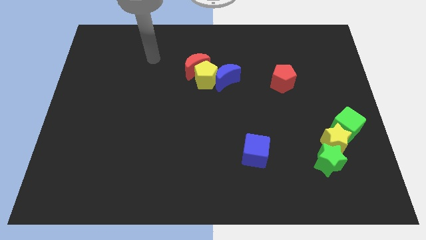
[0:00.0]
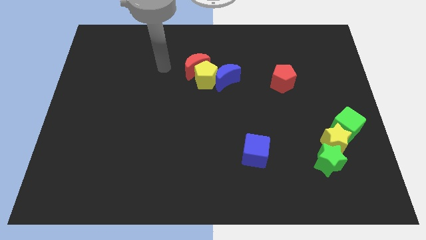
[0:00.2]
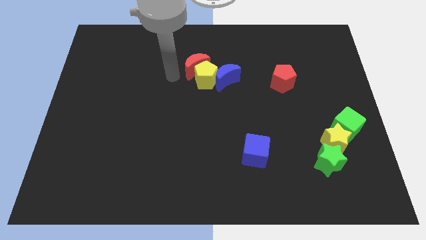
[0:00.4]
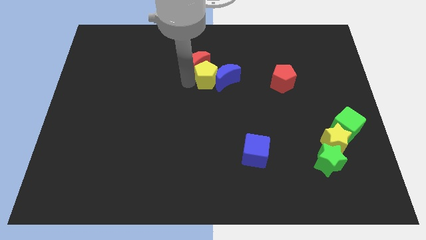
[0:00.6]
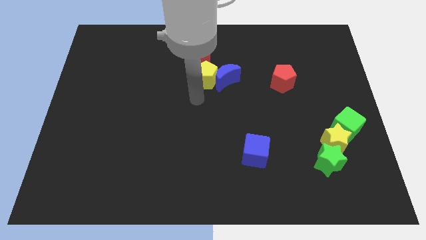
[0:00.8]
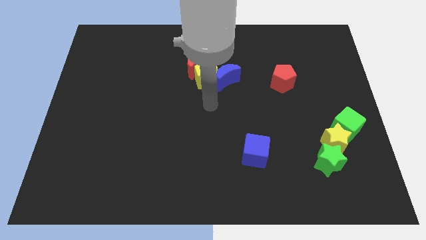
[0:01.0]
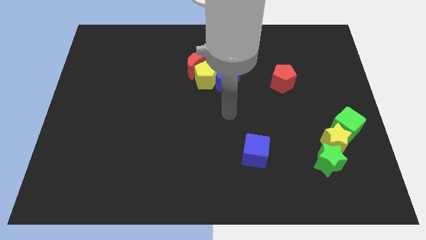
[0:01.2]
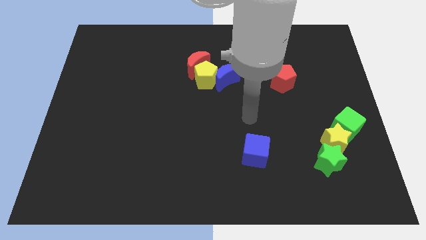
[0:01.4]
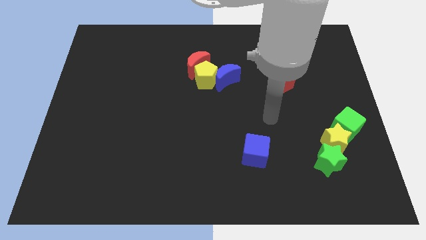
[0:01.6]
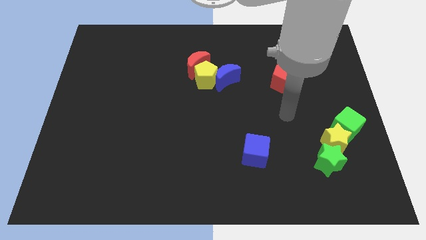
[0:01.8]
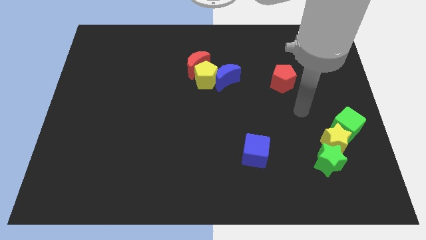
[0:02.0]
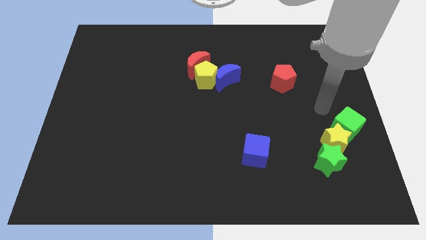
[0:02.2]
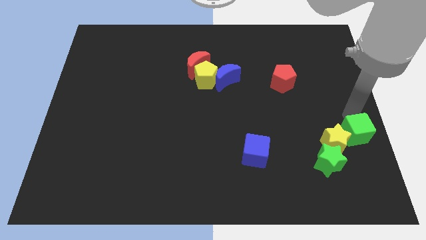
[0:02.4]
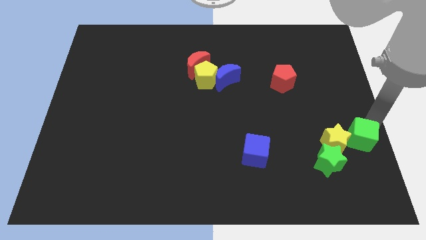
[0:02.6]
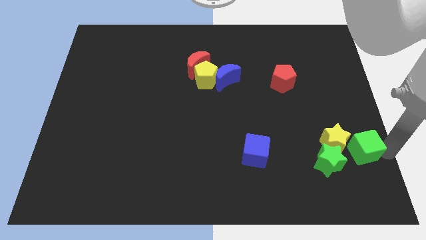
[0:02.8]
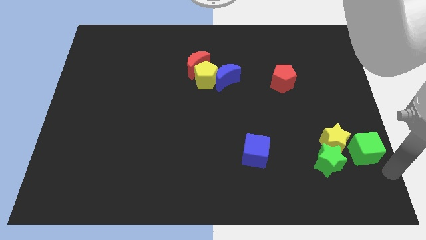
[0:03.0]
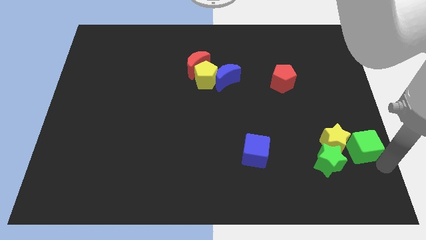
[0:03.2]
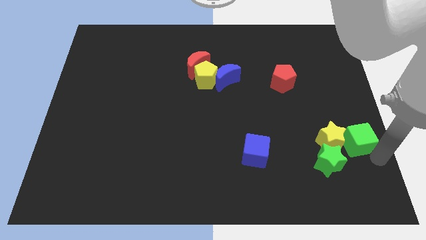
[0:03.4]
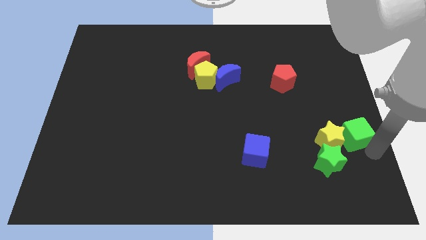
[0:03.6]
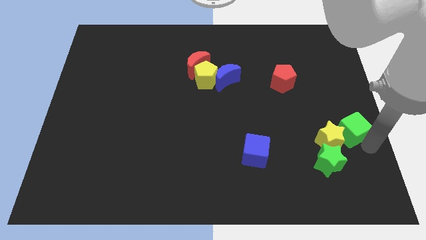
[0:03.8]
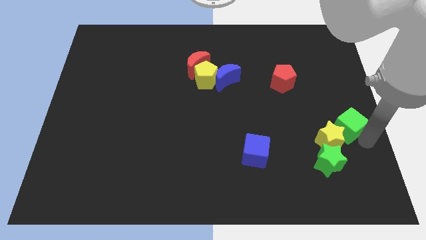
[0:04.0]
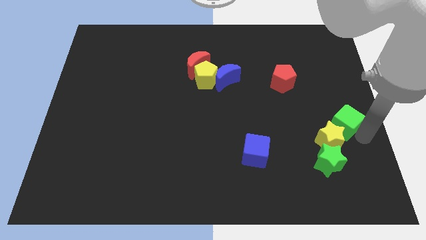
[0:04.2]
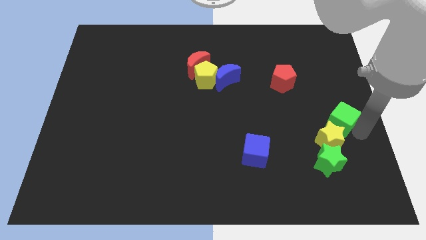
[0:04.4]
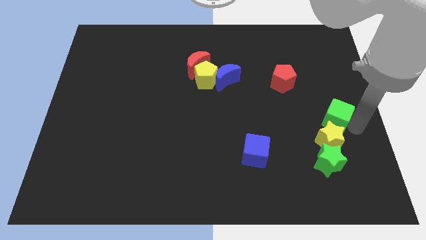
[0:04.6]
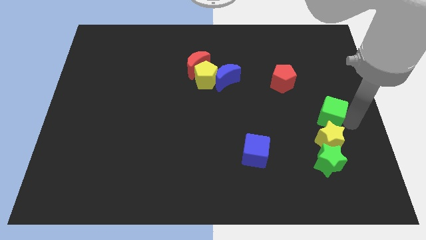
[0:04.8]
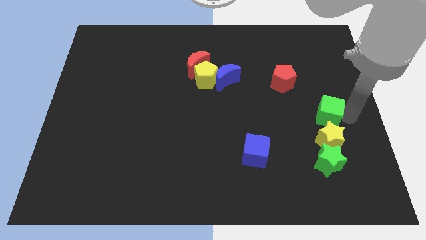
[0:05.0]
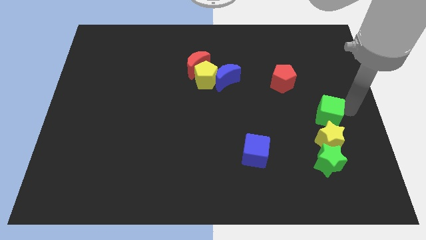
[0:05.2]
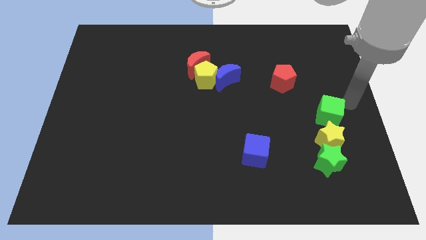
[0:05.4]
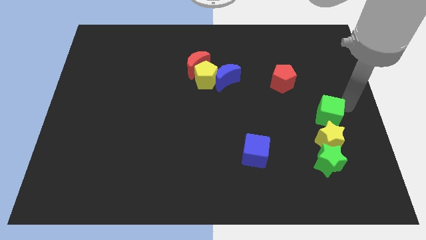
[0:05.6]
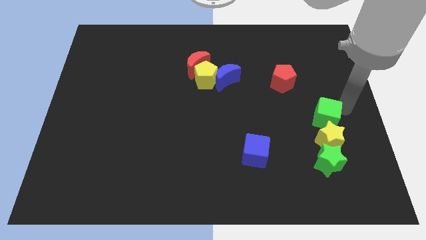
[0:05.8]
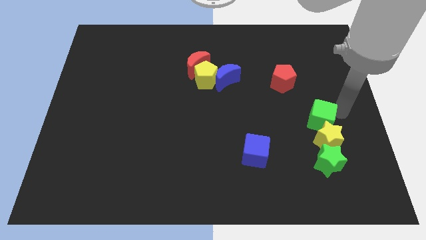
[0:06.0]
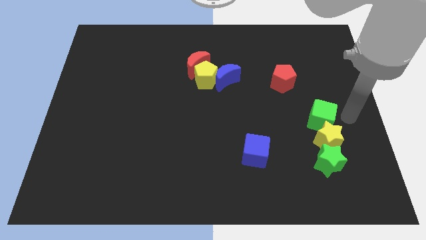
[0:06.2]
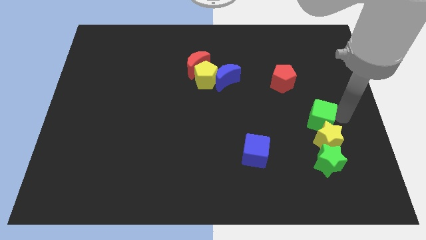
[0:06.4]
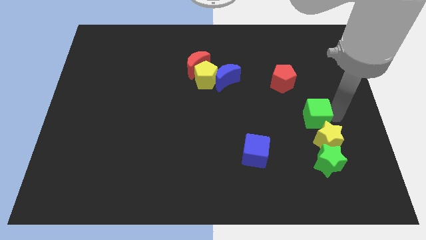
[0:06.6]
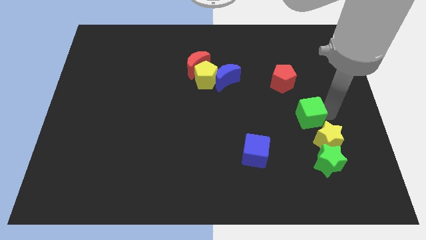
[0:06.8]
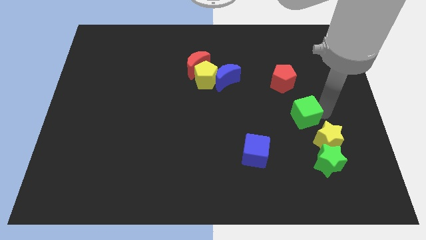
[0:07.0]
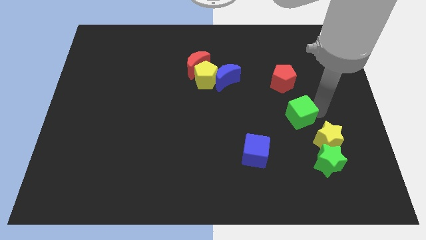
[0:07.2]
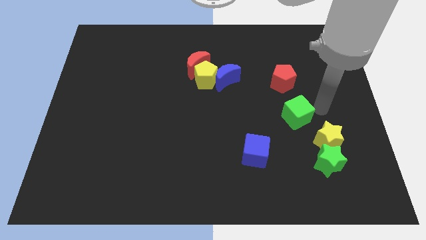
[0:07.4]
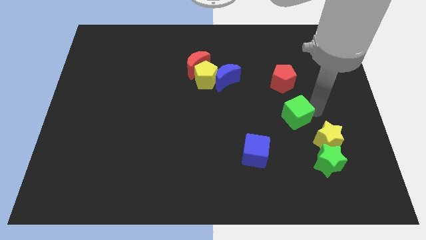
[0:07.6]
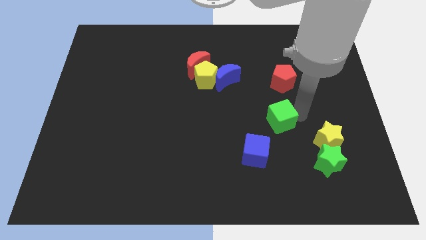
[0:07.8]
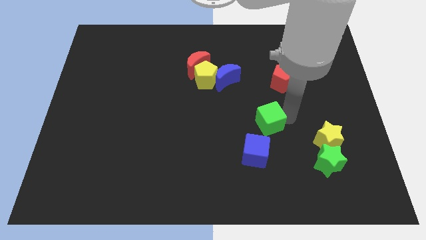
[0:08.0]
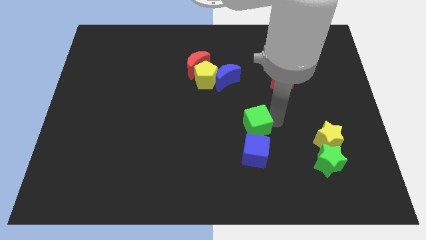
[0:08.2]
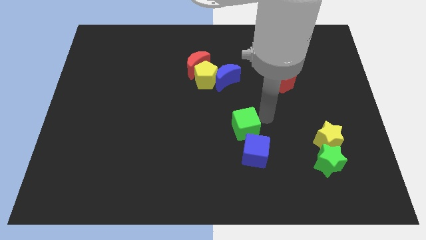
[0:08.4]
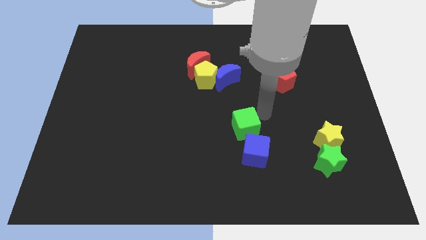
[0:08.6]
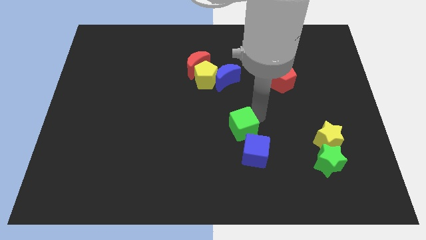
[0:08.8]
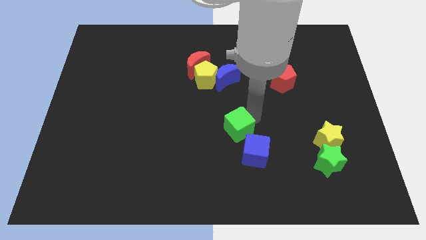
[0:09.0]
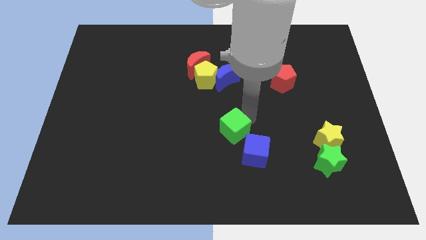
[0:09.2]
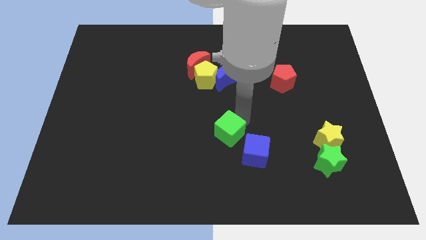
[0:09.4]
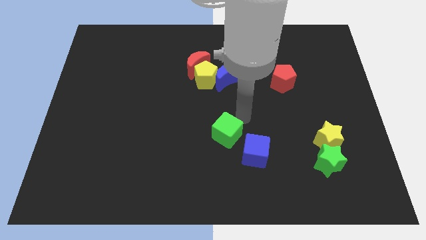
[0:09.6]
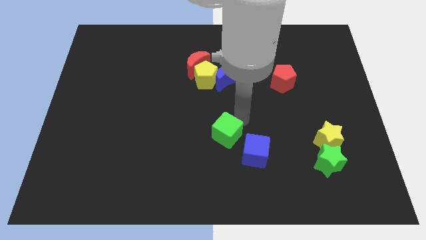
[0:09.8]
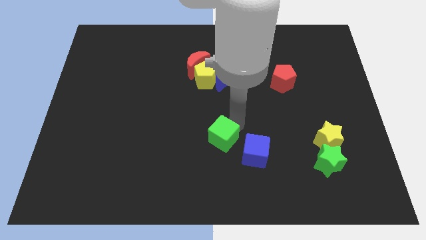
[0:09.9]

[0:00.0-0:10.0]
push the green cube left of the blue cube

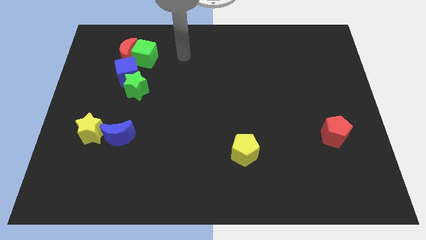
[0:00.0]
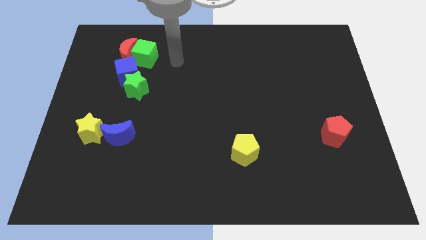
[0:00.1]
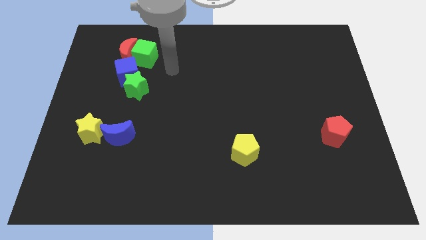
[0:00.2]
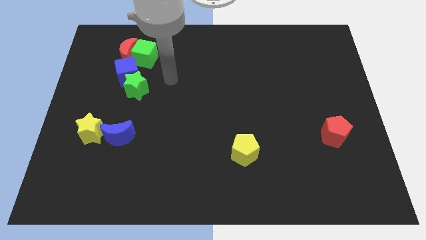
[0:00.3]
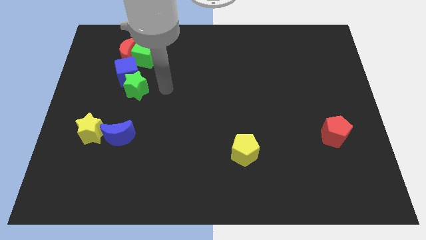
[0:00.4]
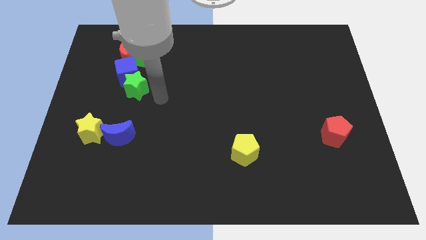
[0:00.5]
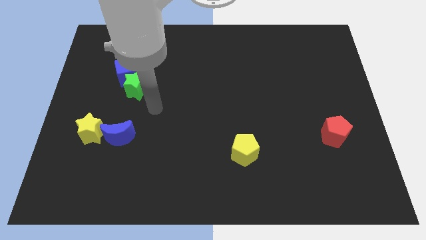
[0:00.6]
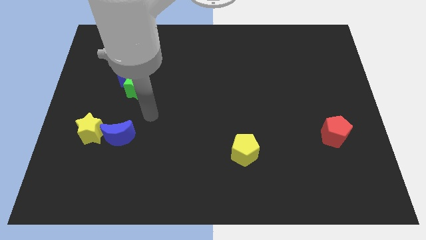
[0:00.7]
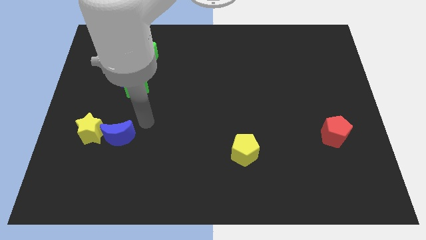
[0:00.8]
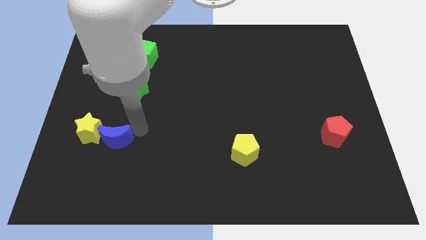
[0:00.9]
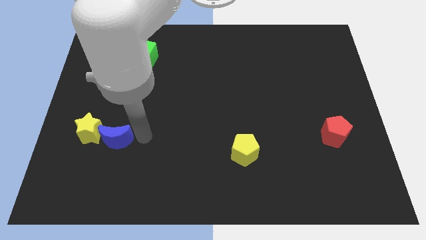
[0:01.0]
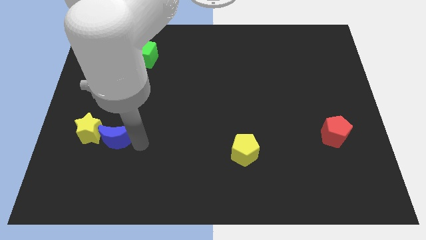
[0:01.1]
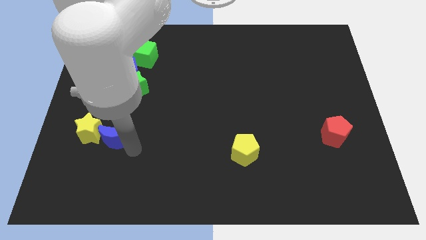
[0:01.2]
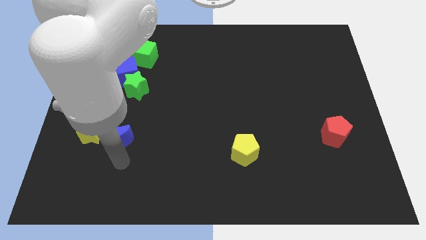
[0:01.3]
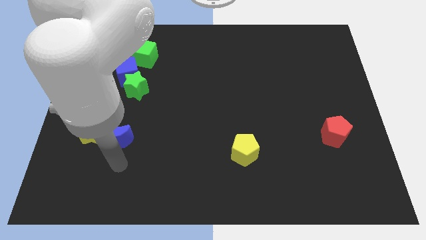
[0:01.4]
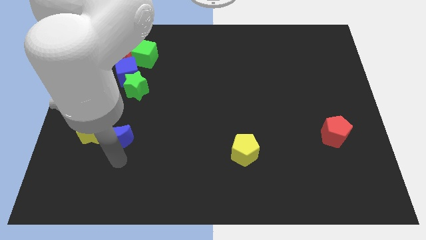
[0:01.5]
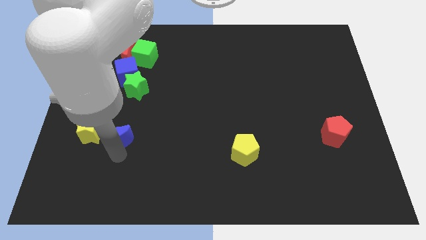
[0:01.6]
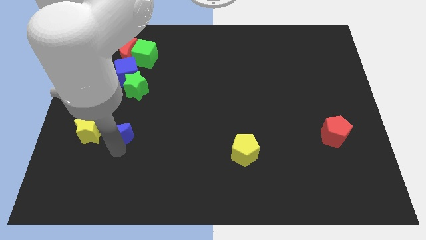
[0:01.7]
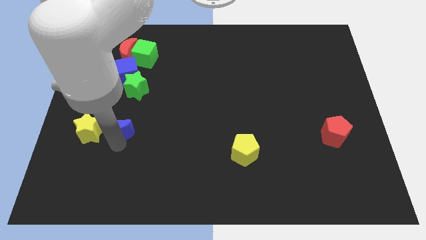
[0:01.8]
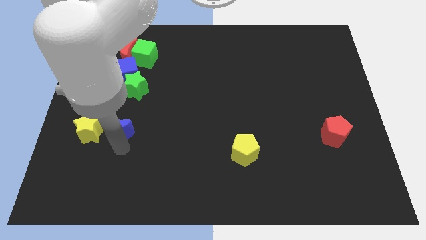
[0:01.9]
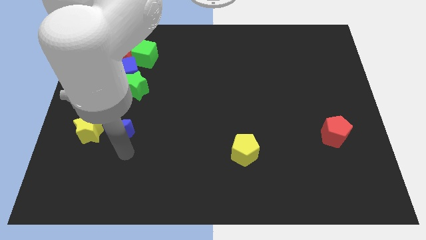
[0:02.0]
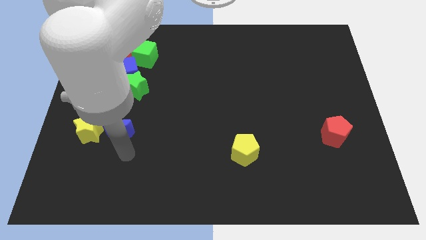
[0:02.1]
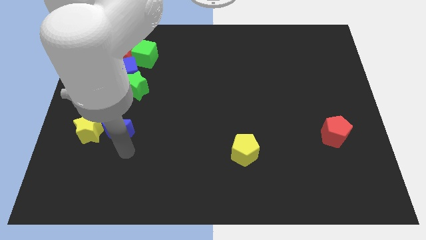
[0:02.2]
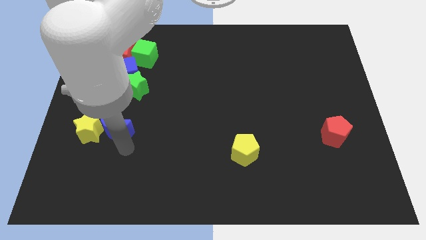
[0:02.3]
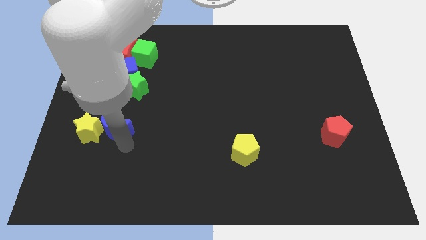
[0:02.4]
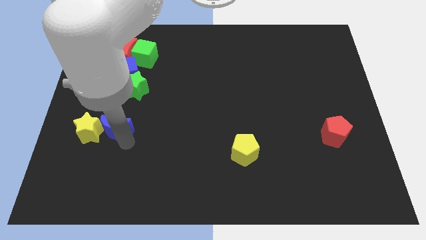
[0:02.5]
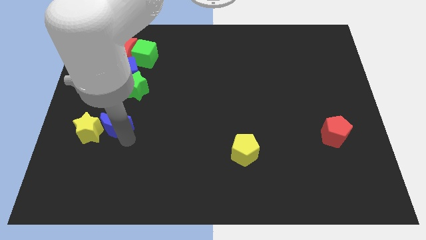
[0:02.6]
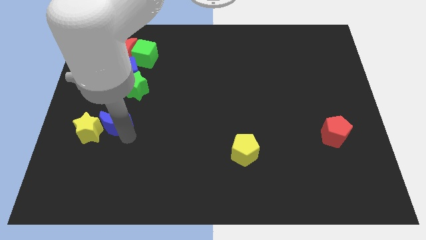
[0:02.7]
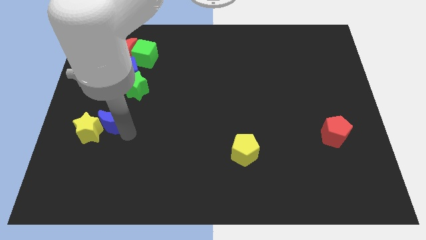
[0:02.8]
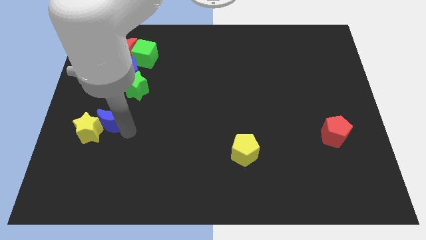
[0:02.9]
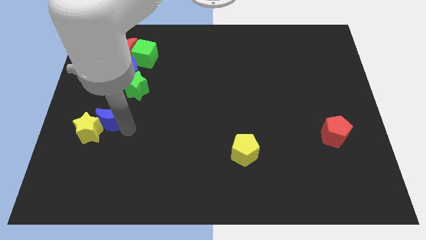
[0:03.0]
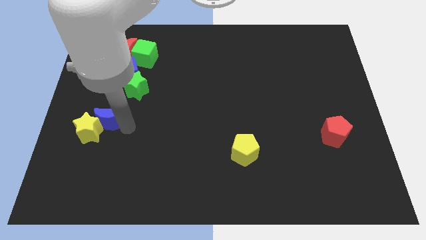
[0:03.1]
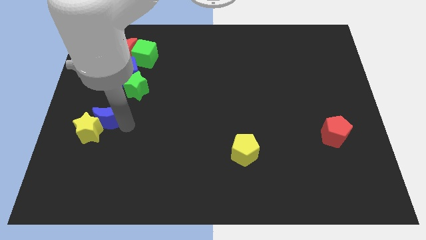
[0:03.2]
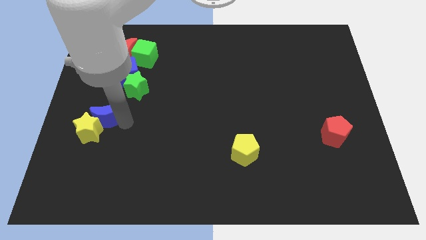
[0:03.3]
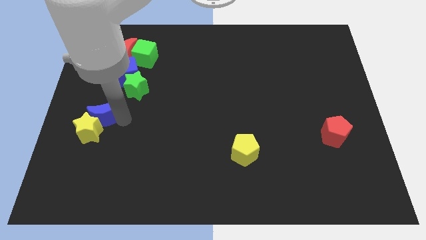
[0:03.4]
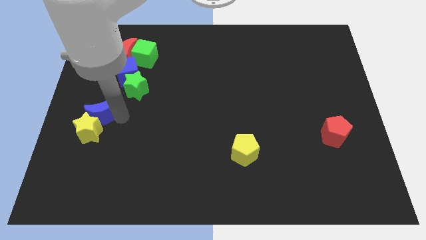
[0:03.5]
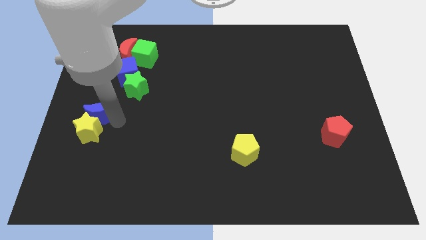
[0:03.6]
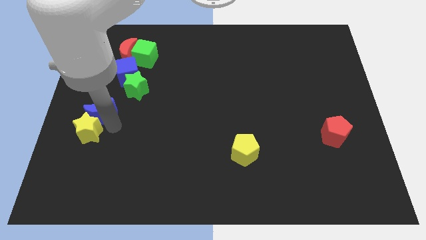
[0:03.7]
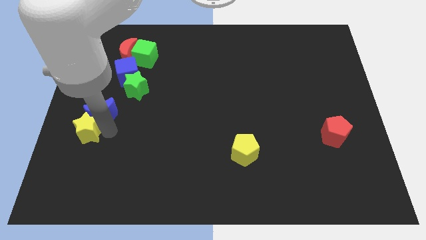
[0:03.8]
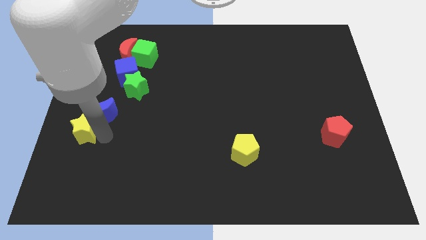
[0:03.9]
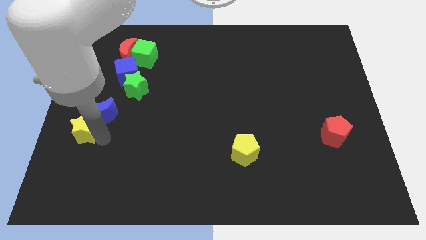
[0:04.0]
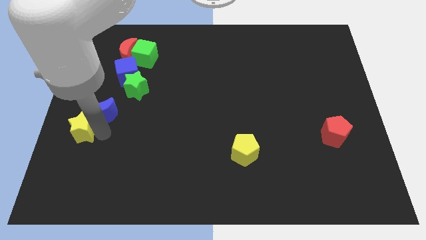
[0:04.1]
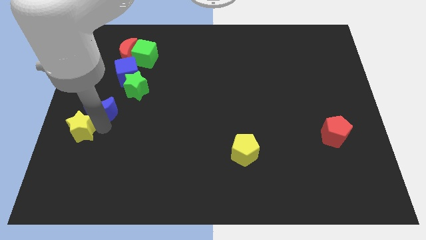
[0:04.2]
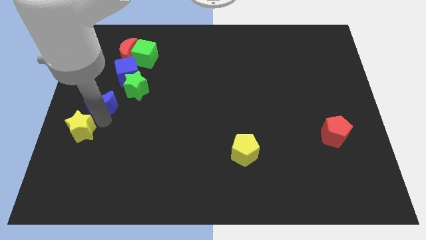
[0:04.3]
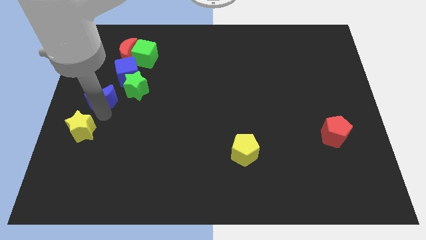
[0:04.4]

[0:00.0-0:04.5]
slide the blue moon diagonally down and to the left of the blue cube
